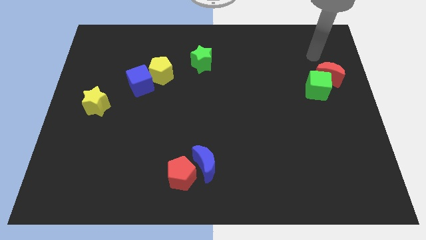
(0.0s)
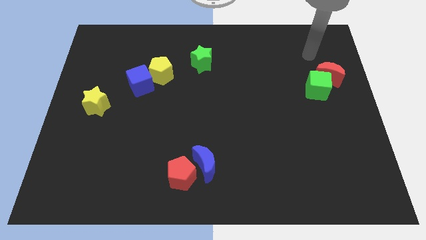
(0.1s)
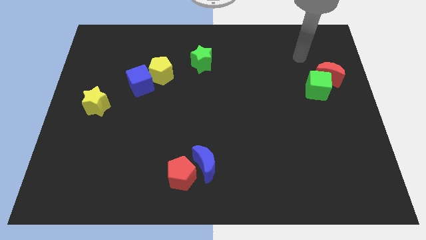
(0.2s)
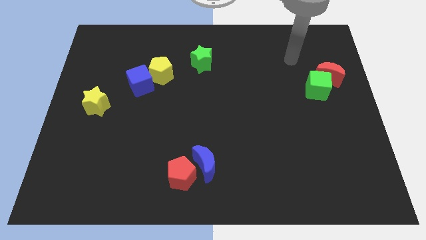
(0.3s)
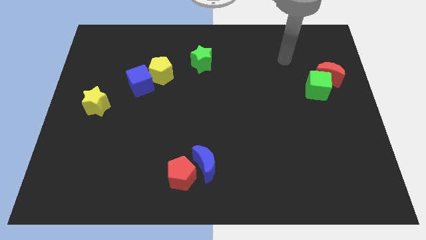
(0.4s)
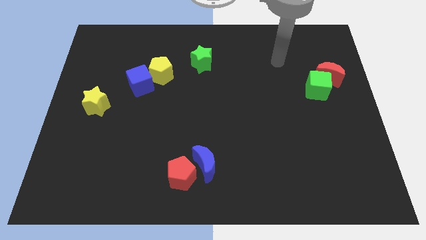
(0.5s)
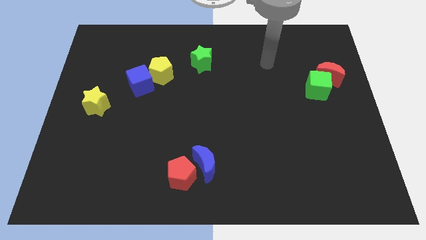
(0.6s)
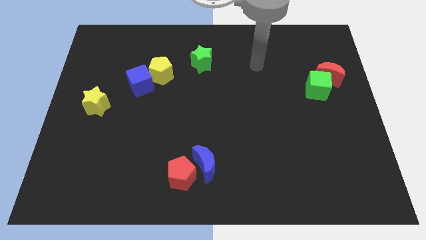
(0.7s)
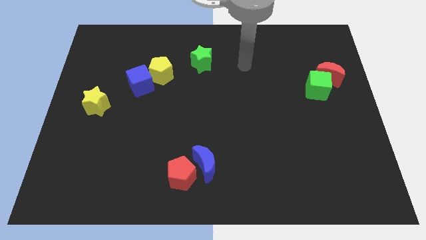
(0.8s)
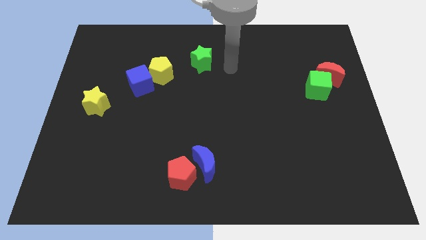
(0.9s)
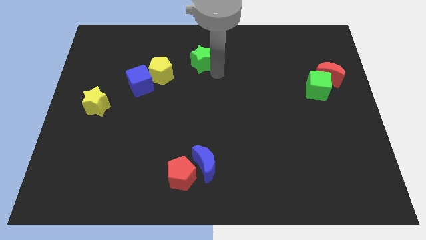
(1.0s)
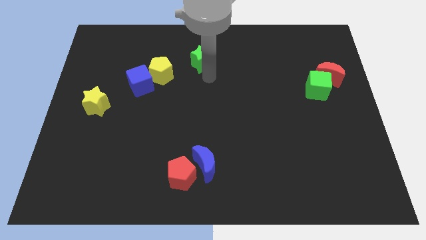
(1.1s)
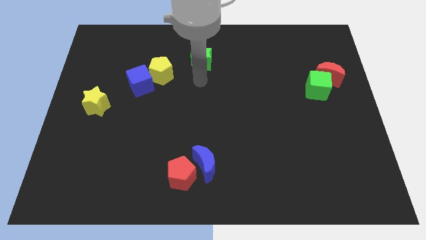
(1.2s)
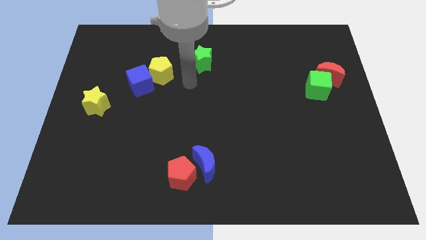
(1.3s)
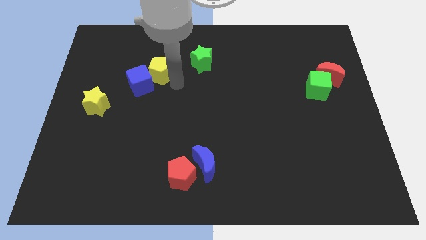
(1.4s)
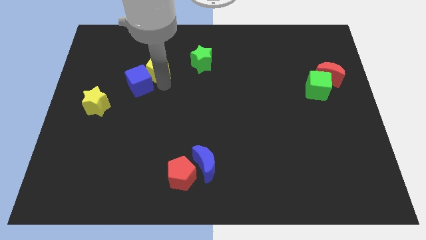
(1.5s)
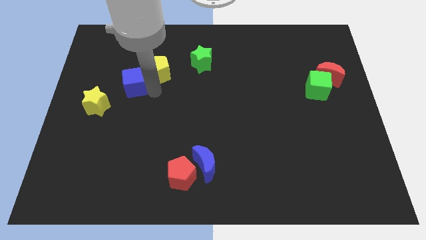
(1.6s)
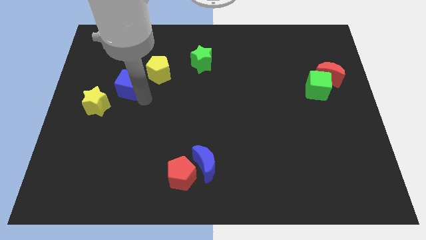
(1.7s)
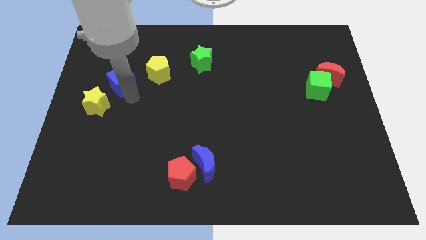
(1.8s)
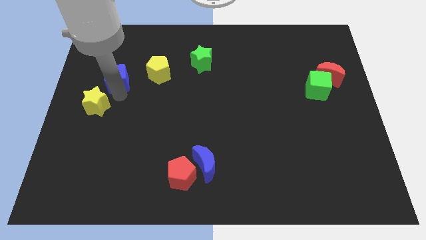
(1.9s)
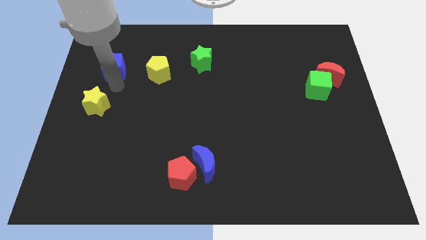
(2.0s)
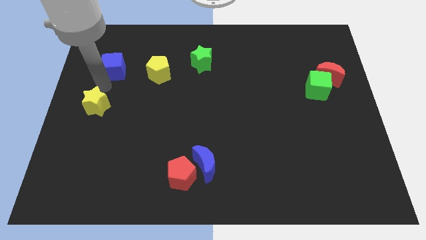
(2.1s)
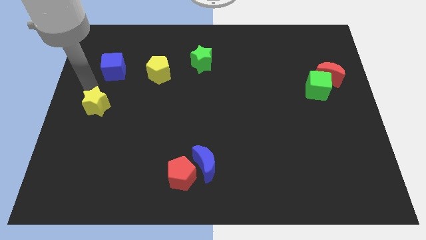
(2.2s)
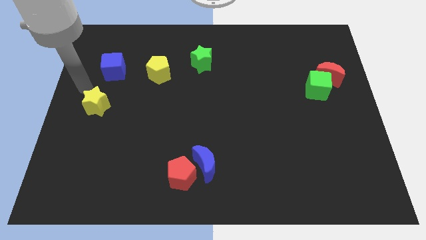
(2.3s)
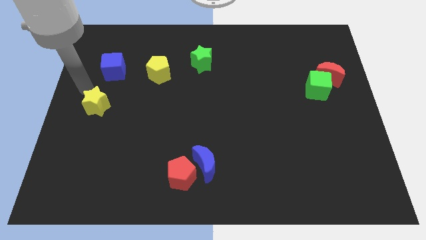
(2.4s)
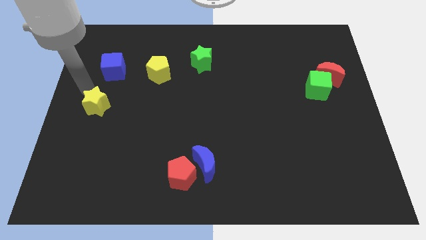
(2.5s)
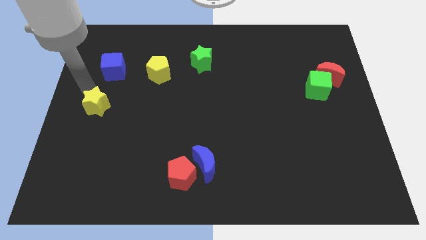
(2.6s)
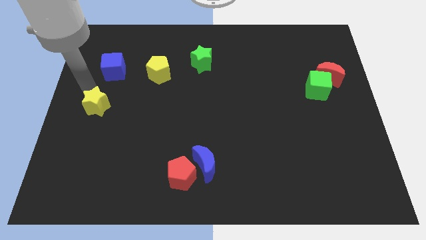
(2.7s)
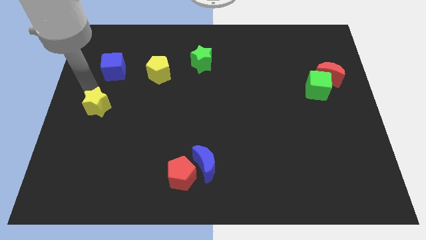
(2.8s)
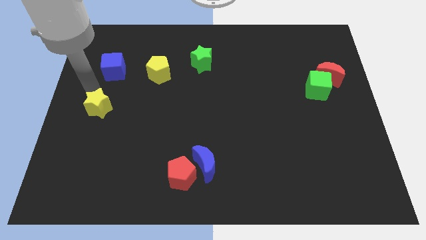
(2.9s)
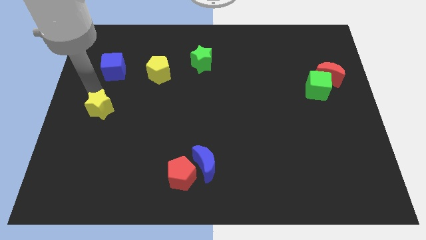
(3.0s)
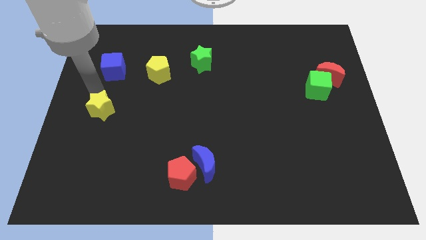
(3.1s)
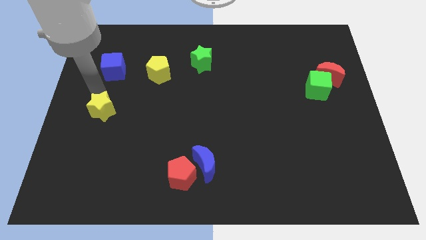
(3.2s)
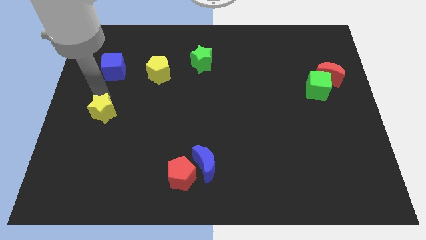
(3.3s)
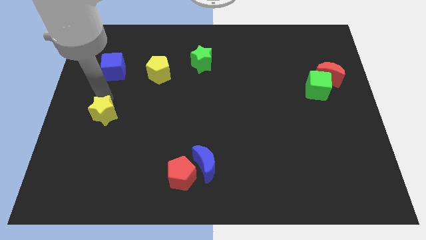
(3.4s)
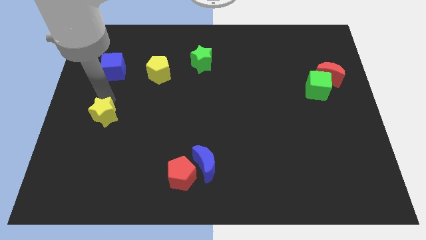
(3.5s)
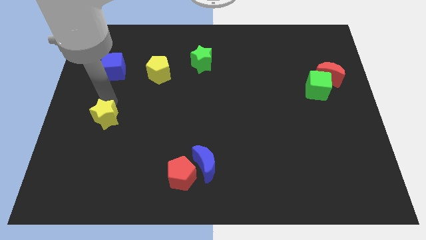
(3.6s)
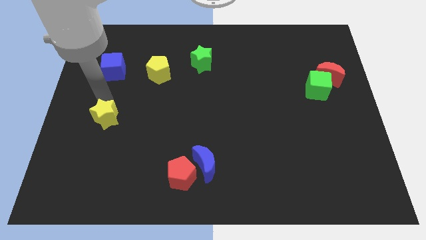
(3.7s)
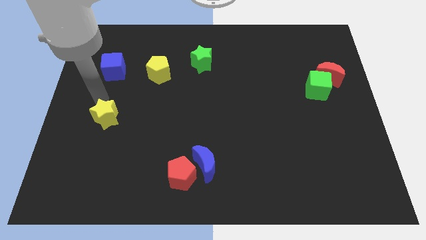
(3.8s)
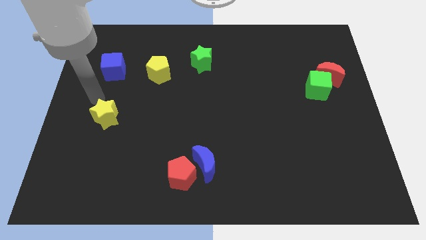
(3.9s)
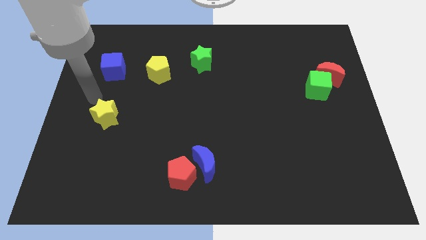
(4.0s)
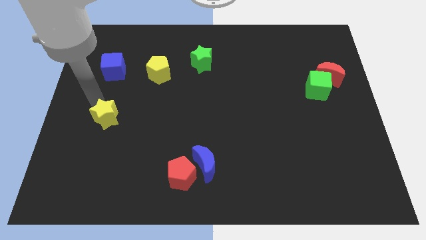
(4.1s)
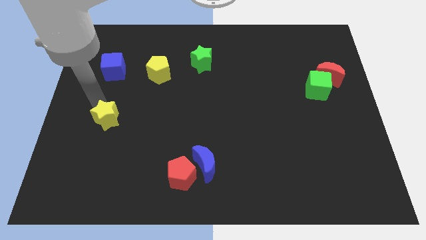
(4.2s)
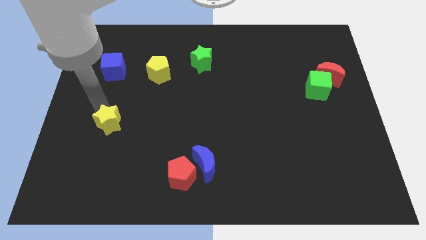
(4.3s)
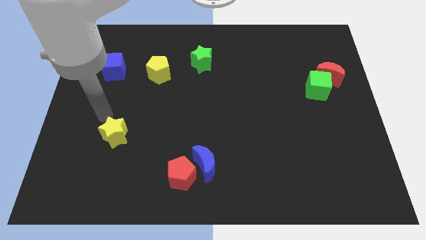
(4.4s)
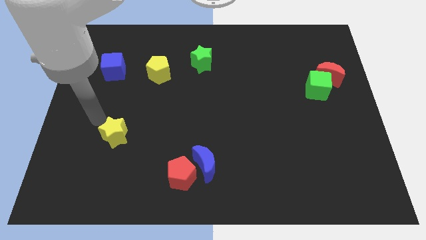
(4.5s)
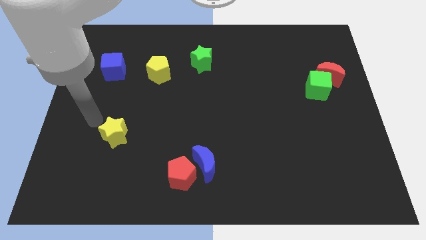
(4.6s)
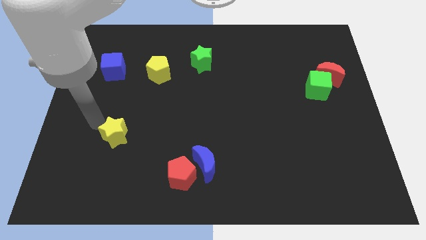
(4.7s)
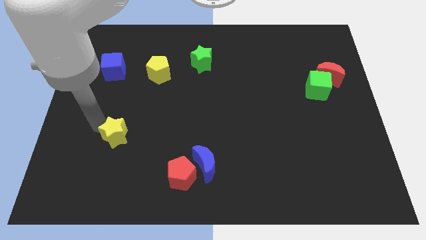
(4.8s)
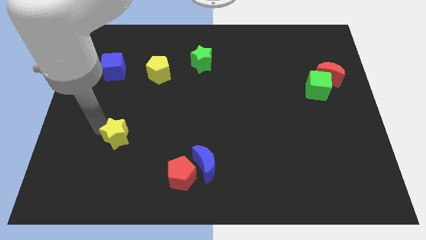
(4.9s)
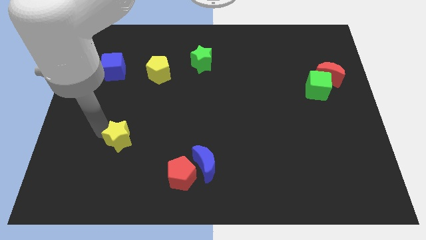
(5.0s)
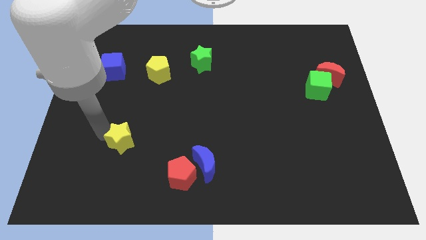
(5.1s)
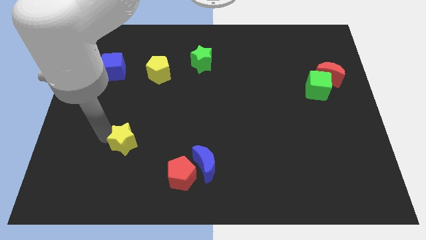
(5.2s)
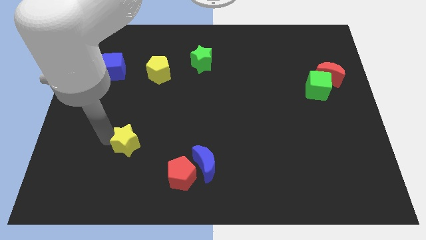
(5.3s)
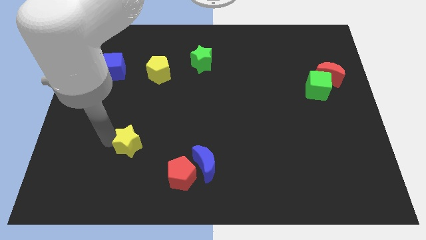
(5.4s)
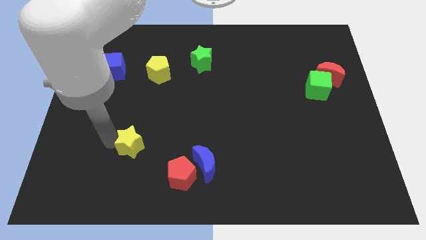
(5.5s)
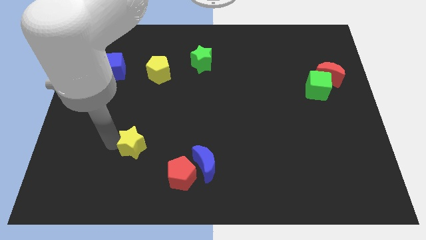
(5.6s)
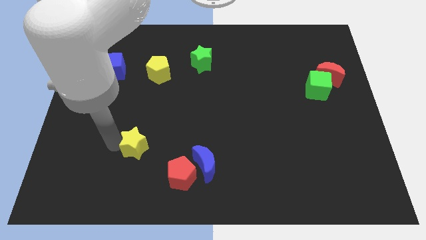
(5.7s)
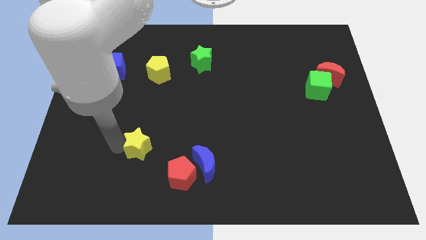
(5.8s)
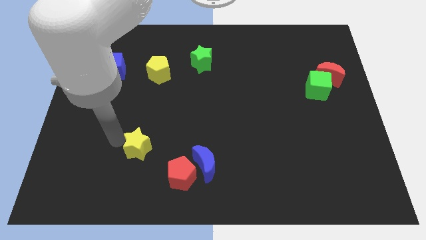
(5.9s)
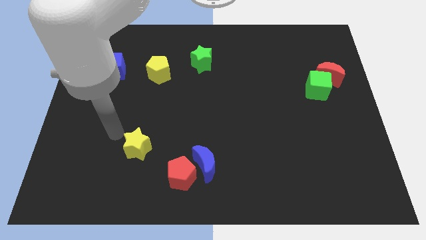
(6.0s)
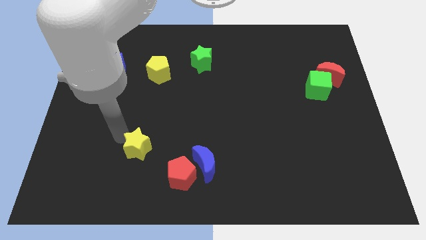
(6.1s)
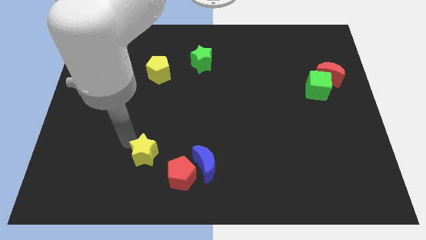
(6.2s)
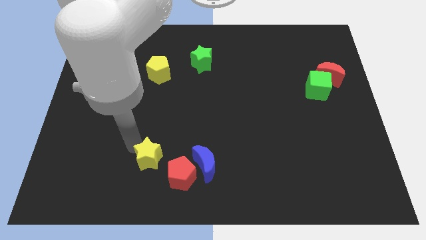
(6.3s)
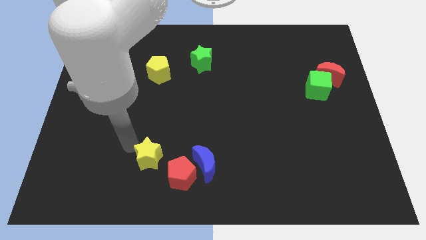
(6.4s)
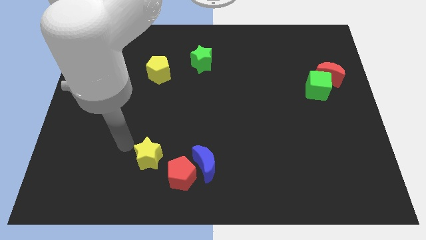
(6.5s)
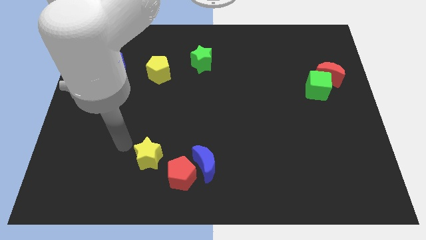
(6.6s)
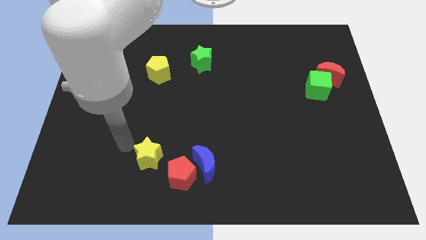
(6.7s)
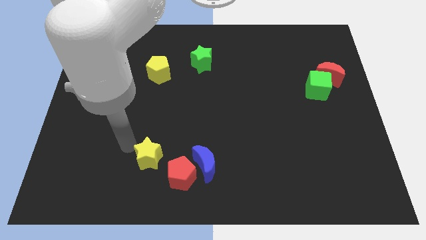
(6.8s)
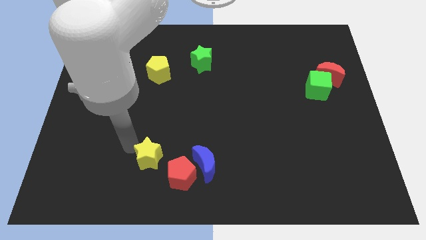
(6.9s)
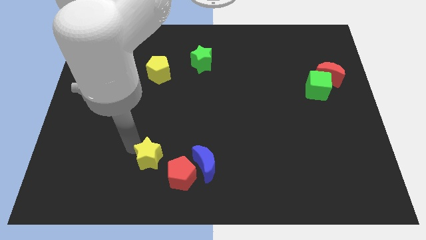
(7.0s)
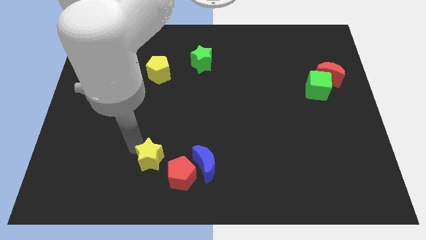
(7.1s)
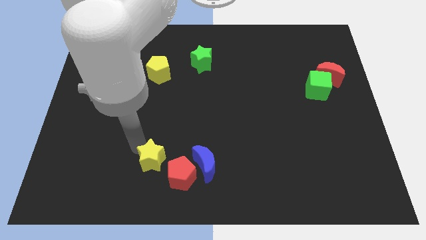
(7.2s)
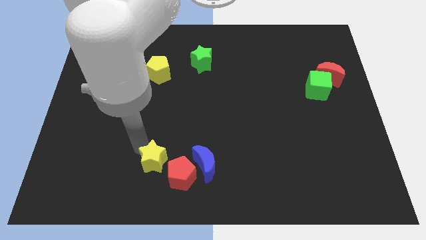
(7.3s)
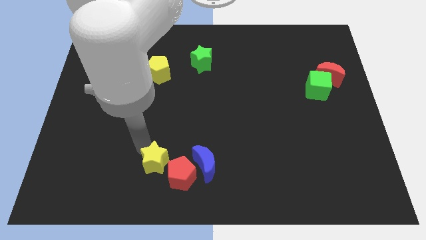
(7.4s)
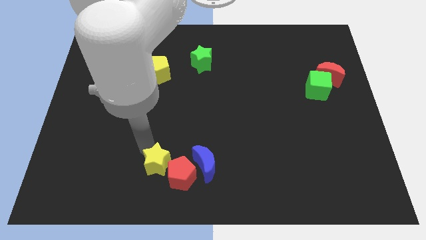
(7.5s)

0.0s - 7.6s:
slide the yellow star towards the red pentagon

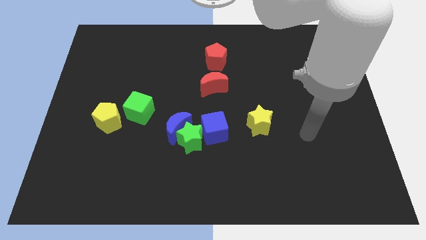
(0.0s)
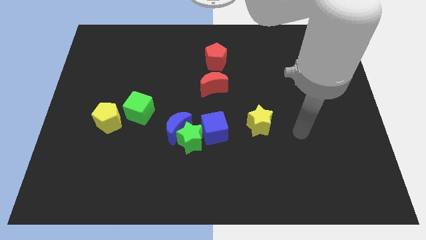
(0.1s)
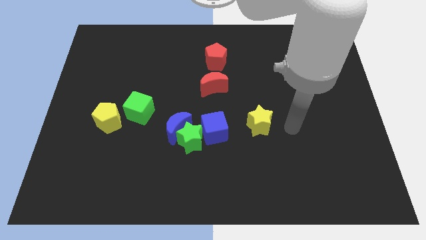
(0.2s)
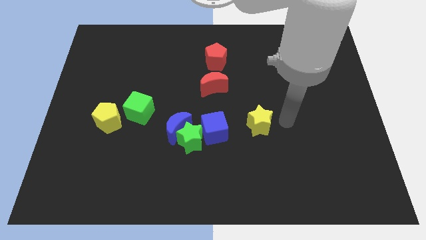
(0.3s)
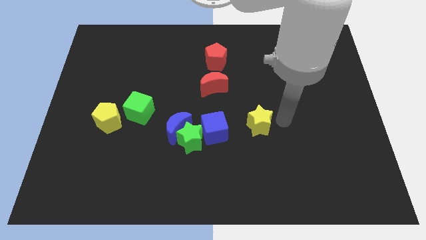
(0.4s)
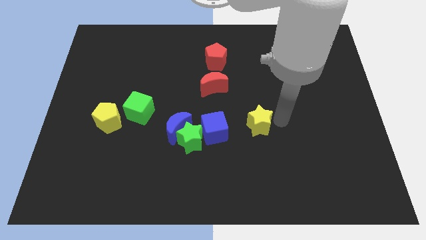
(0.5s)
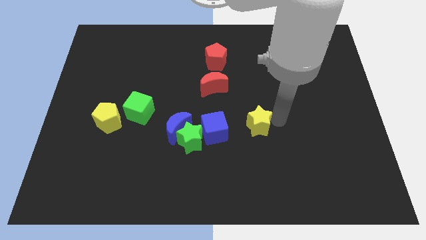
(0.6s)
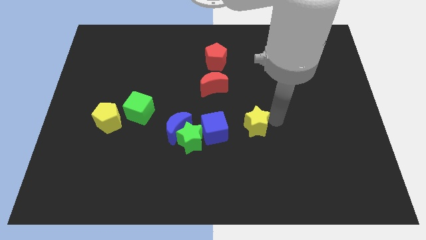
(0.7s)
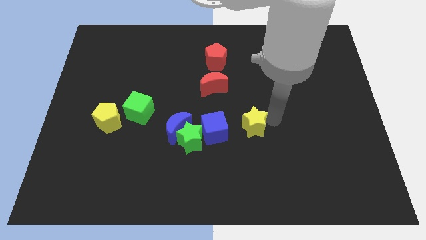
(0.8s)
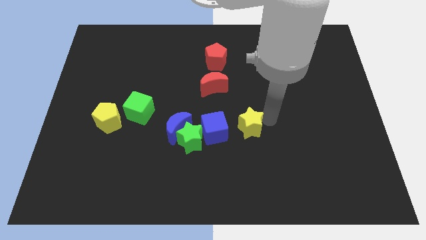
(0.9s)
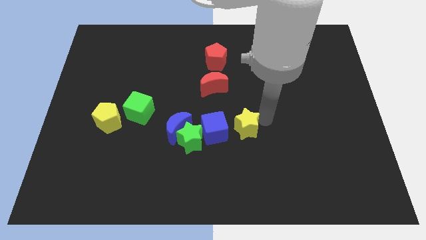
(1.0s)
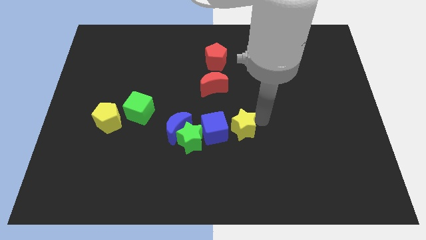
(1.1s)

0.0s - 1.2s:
push the yellow star next to the blue cube
